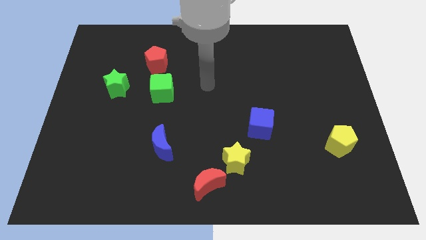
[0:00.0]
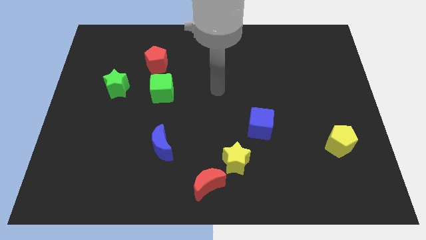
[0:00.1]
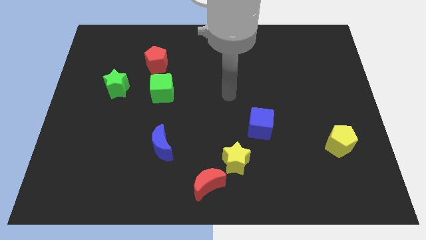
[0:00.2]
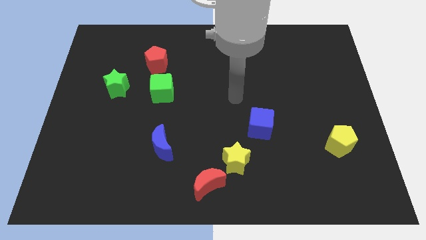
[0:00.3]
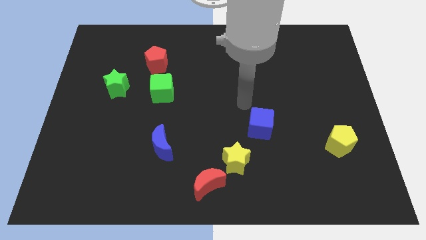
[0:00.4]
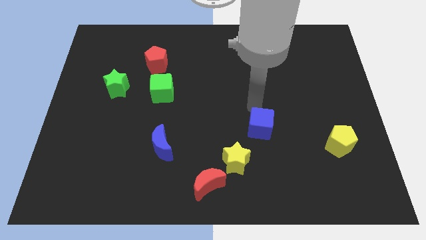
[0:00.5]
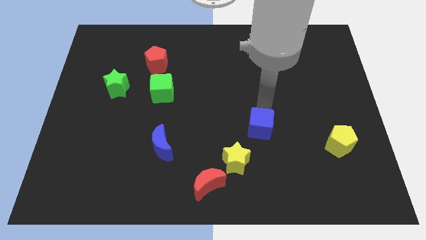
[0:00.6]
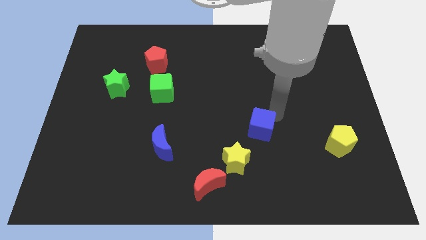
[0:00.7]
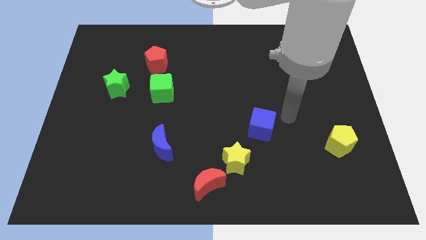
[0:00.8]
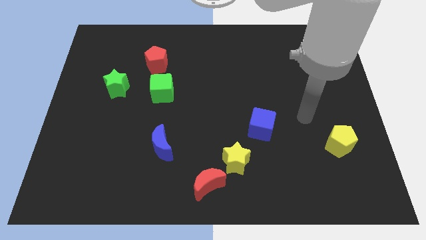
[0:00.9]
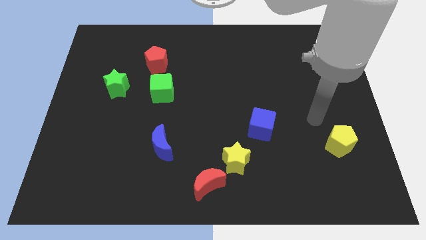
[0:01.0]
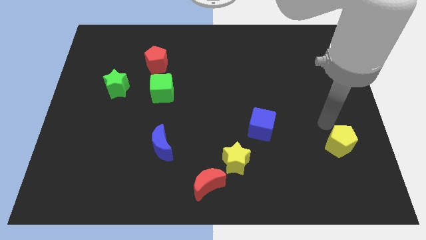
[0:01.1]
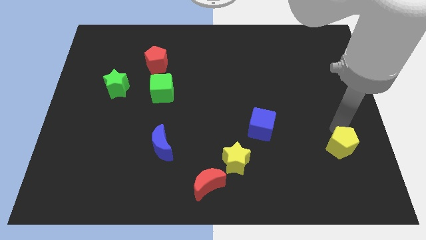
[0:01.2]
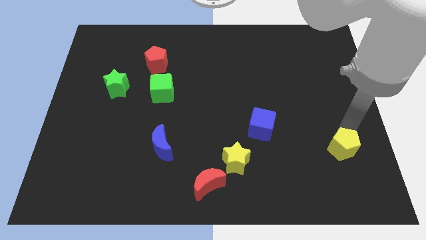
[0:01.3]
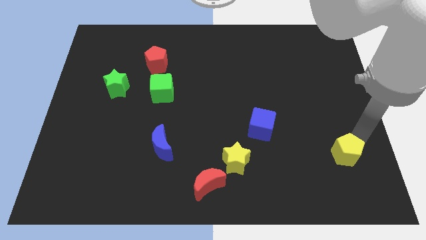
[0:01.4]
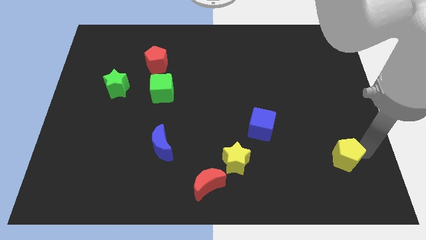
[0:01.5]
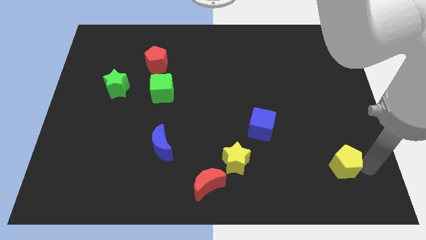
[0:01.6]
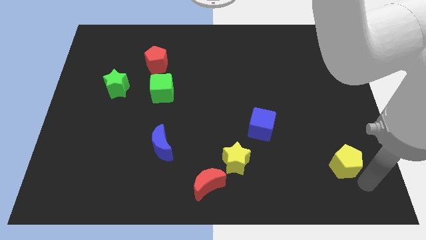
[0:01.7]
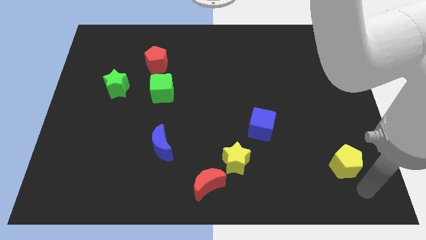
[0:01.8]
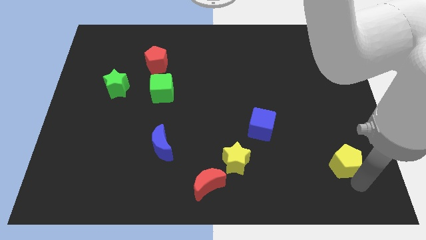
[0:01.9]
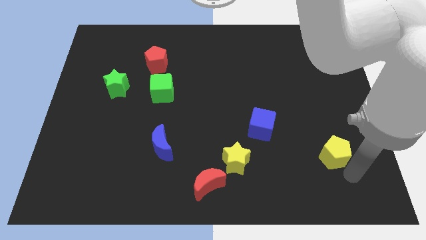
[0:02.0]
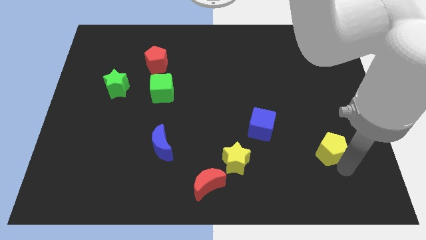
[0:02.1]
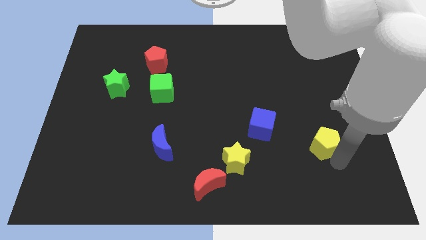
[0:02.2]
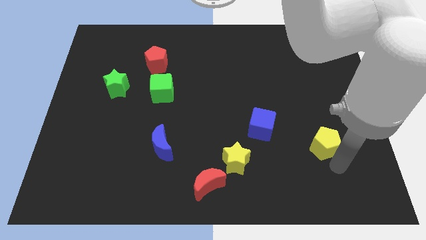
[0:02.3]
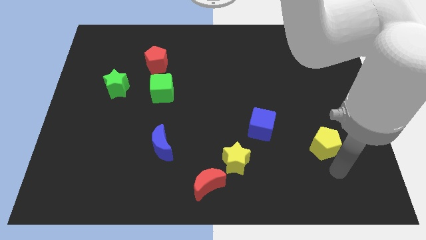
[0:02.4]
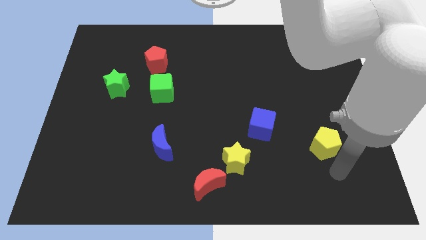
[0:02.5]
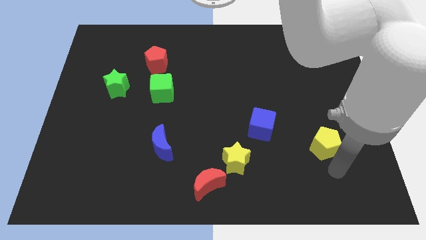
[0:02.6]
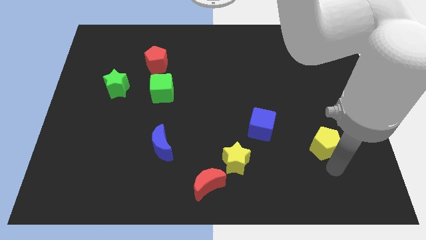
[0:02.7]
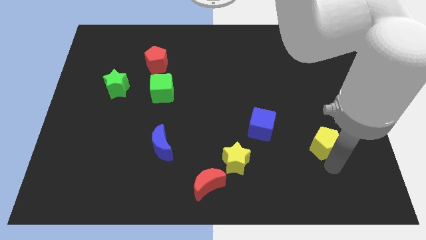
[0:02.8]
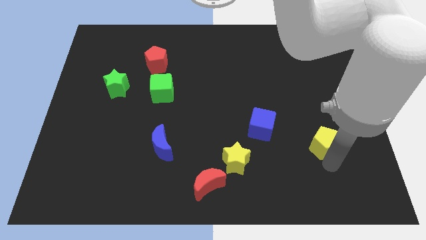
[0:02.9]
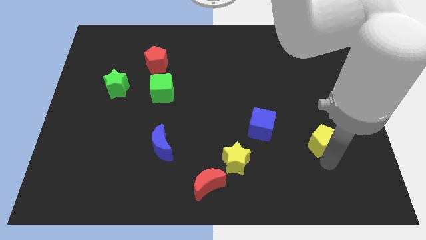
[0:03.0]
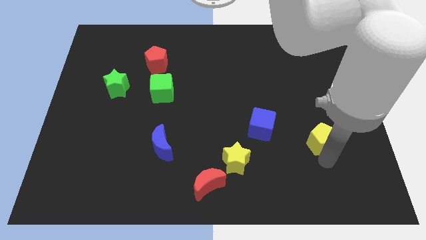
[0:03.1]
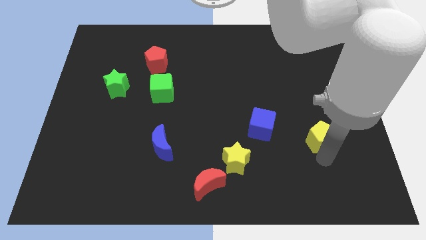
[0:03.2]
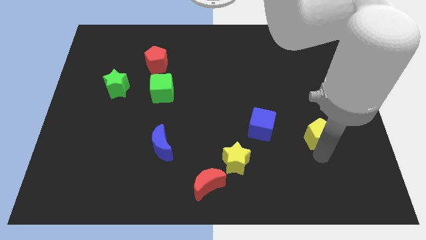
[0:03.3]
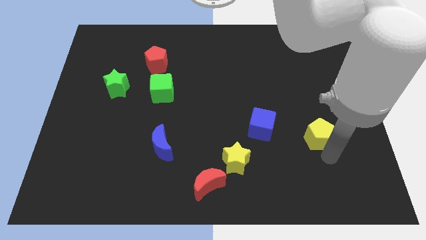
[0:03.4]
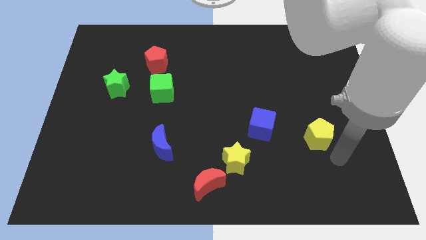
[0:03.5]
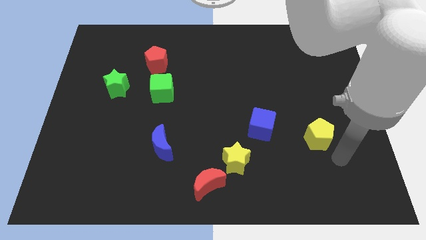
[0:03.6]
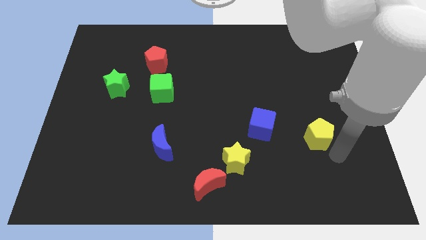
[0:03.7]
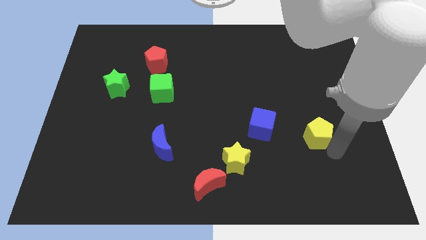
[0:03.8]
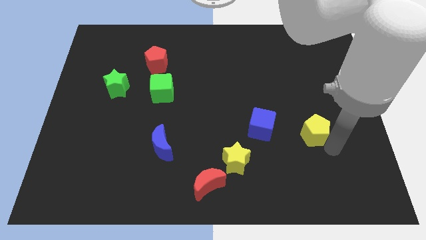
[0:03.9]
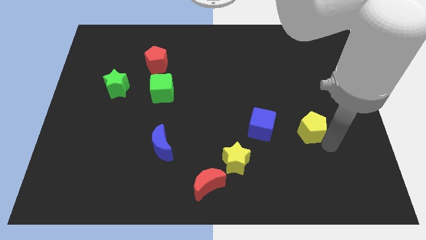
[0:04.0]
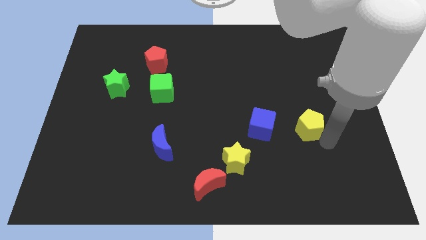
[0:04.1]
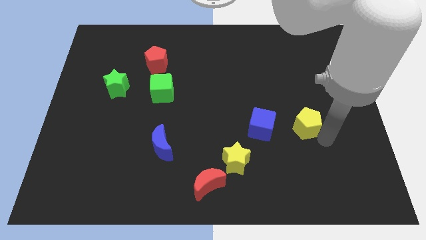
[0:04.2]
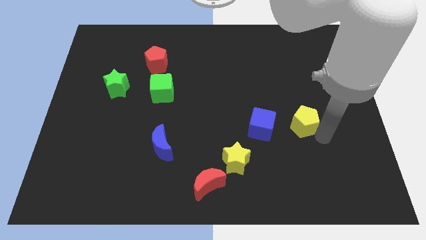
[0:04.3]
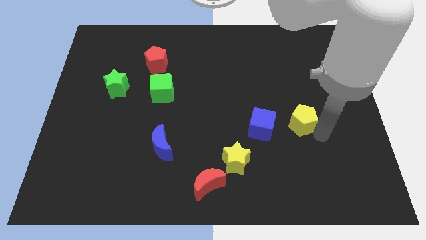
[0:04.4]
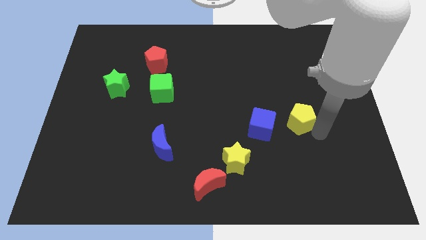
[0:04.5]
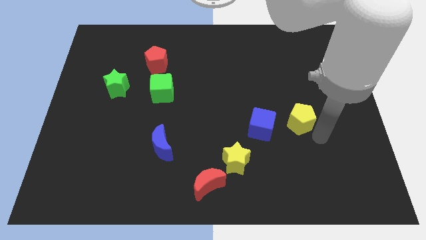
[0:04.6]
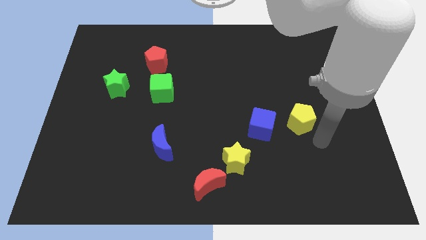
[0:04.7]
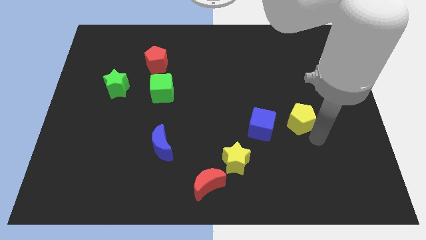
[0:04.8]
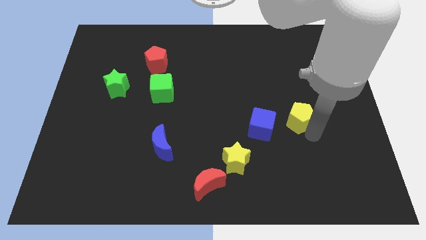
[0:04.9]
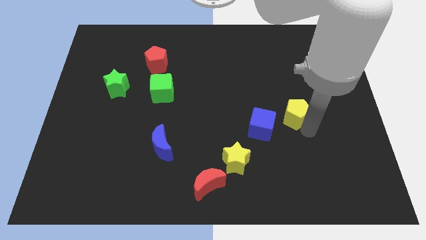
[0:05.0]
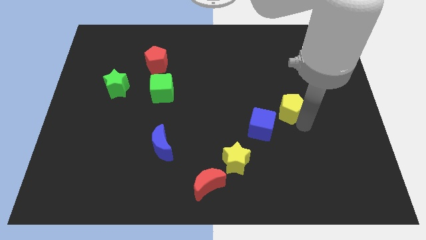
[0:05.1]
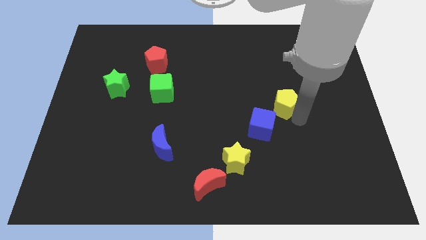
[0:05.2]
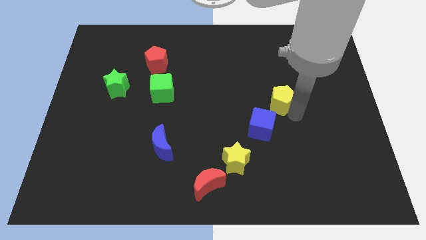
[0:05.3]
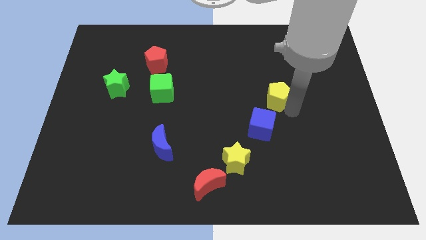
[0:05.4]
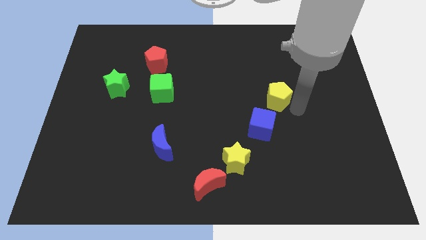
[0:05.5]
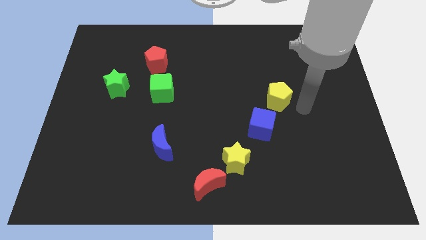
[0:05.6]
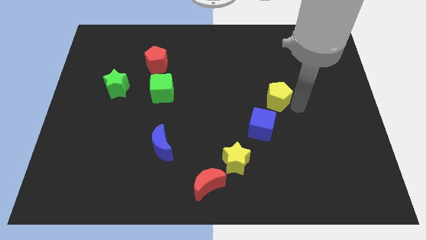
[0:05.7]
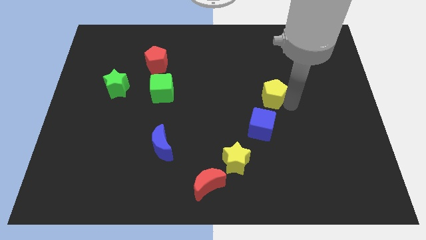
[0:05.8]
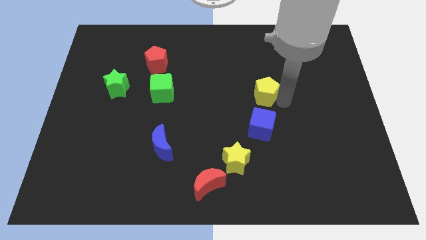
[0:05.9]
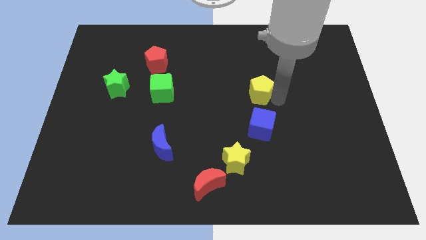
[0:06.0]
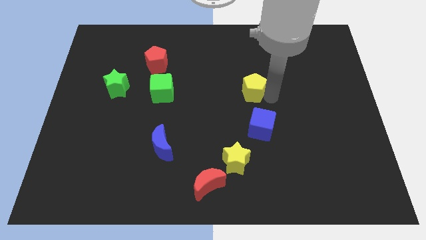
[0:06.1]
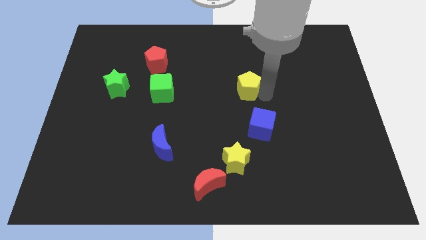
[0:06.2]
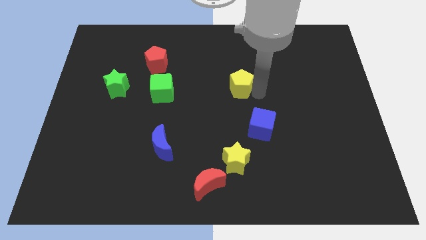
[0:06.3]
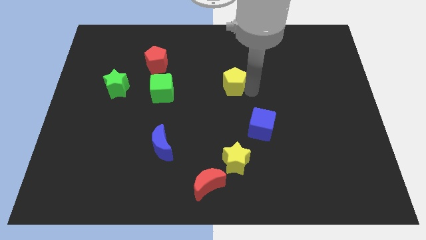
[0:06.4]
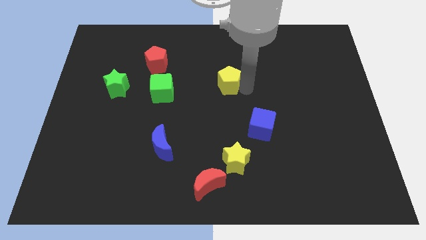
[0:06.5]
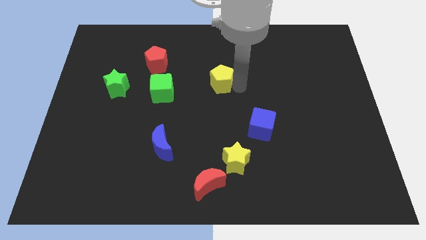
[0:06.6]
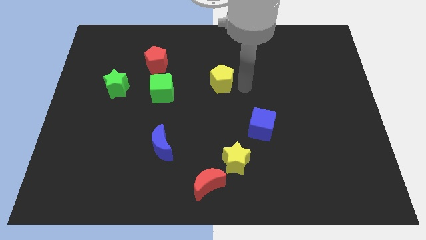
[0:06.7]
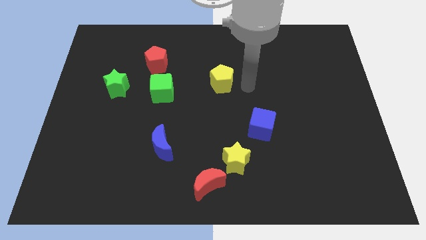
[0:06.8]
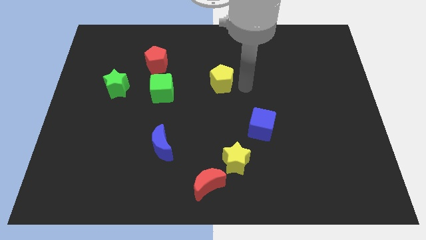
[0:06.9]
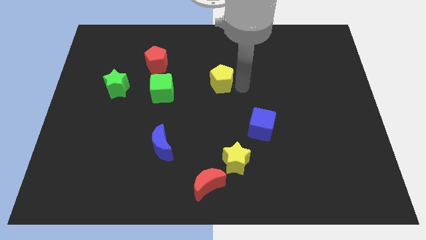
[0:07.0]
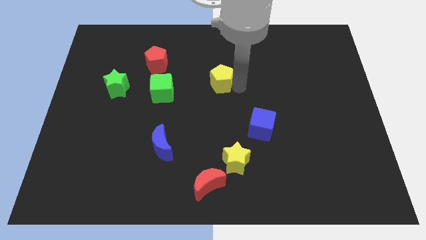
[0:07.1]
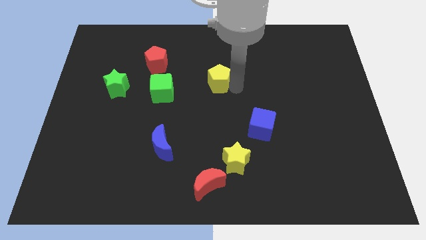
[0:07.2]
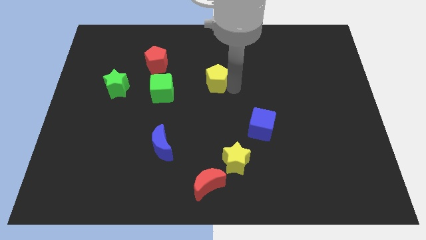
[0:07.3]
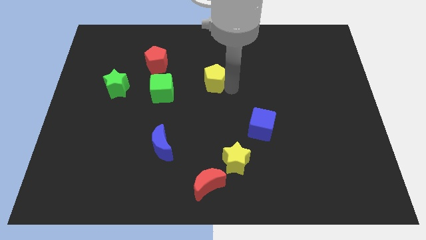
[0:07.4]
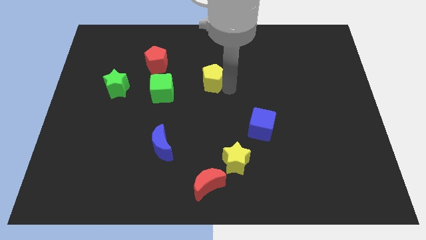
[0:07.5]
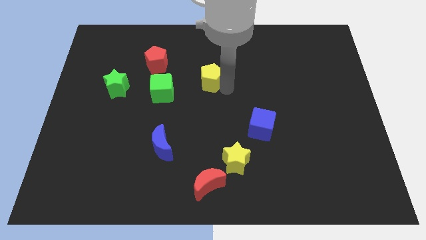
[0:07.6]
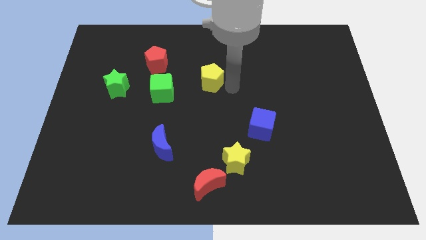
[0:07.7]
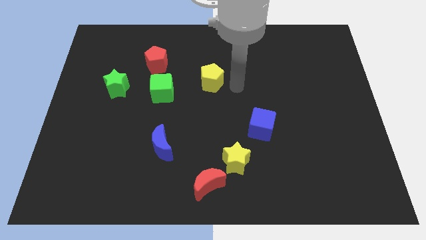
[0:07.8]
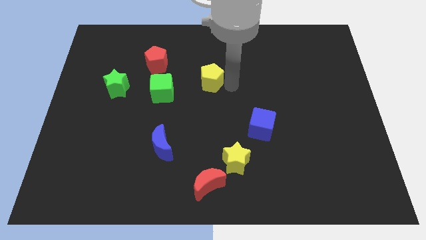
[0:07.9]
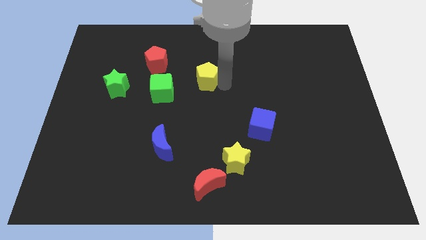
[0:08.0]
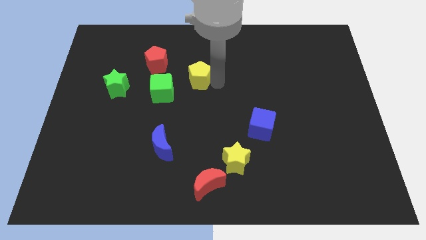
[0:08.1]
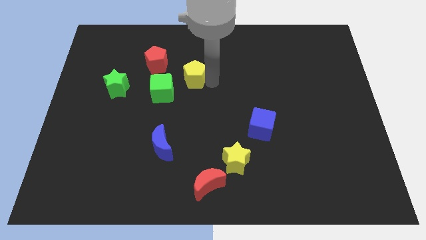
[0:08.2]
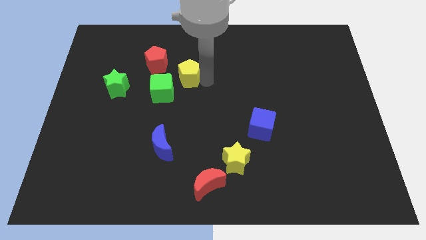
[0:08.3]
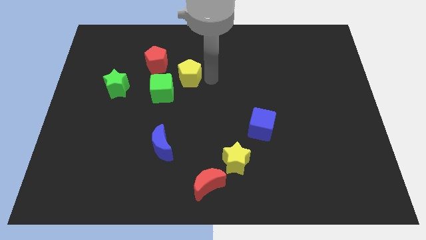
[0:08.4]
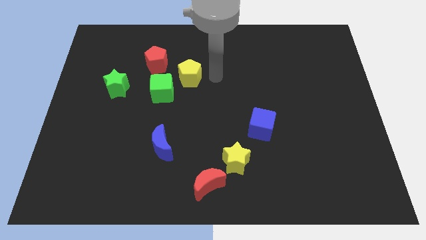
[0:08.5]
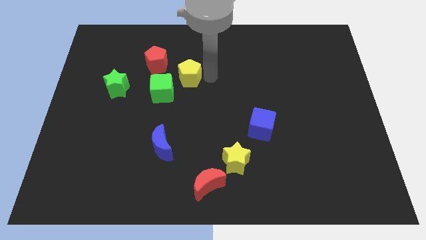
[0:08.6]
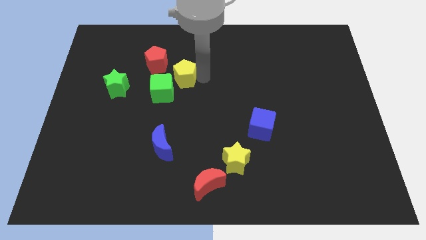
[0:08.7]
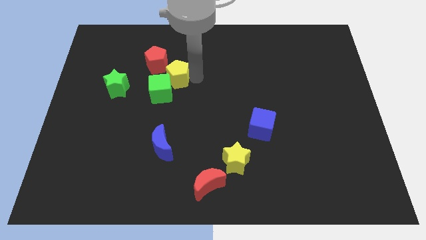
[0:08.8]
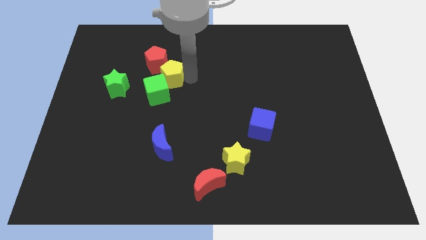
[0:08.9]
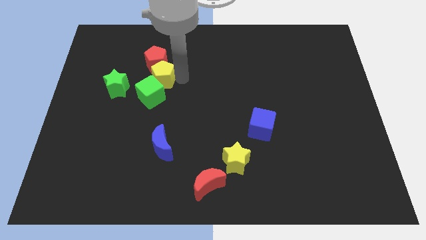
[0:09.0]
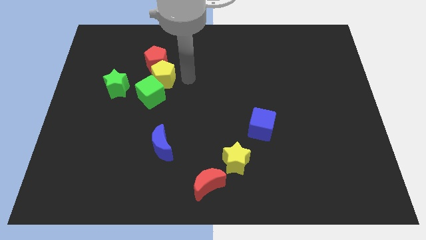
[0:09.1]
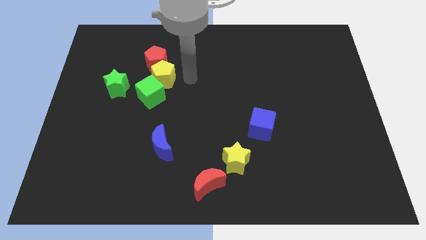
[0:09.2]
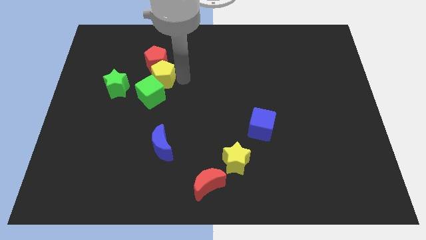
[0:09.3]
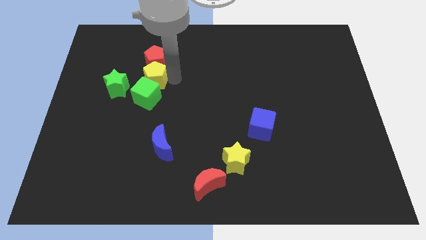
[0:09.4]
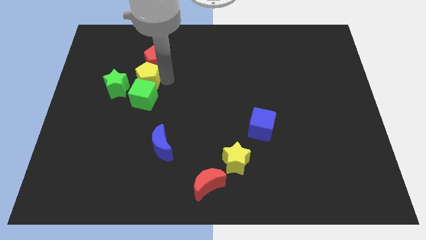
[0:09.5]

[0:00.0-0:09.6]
push the yellow pentagon to the top left of the green cube
